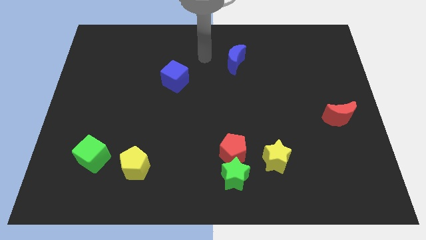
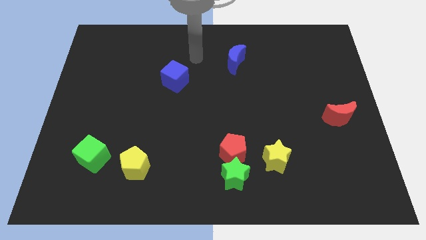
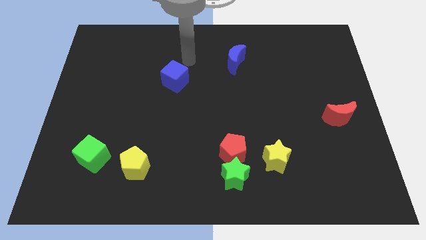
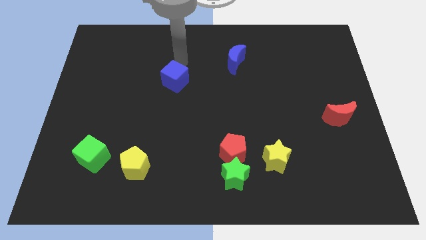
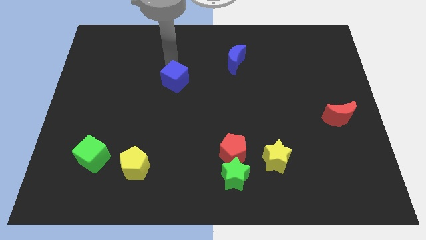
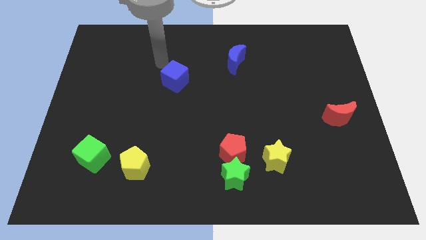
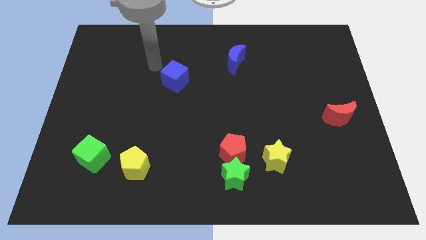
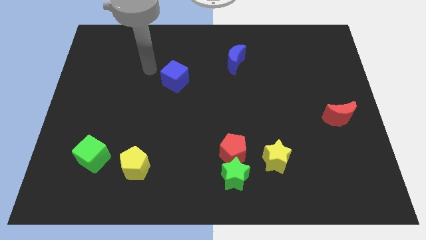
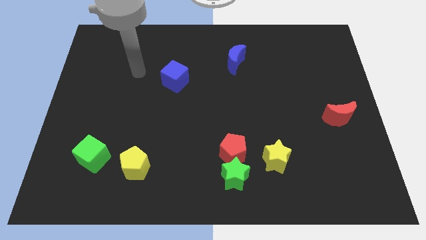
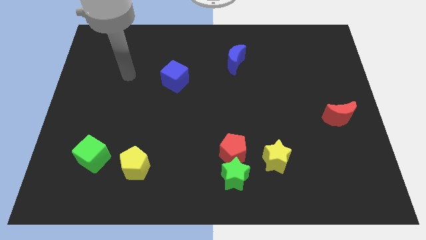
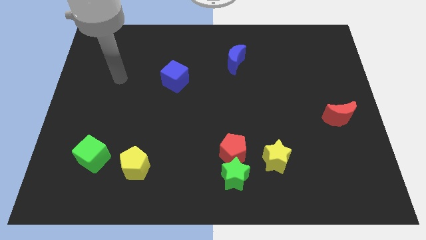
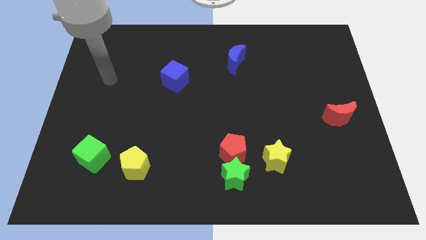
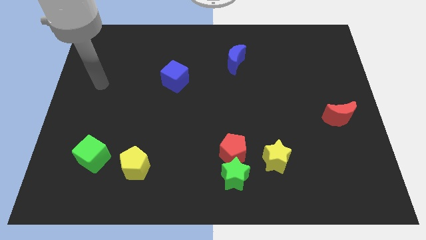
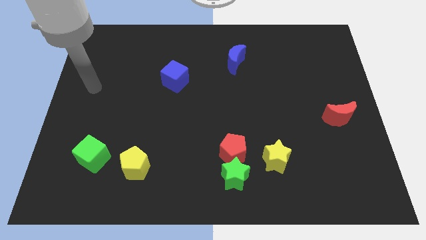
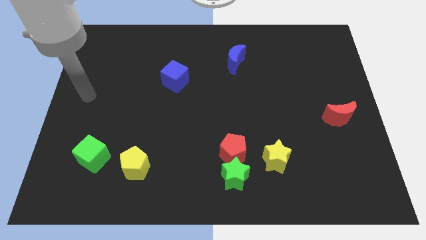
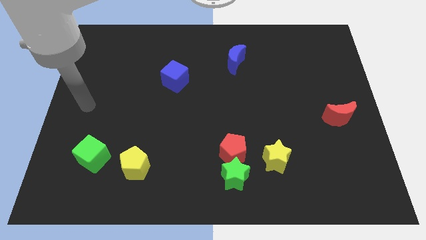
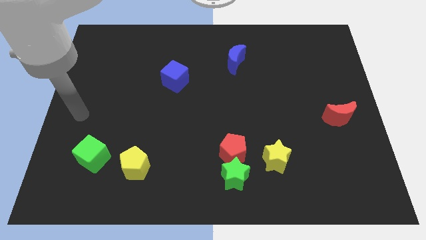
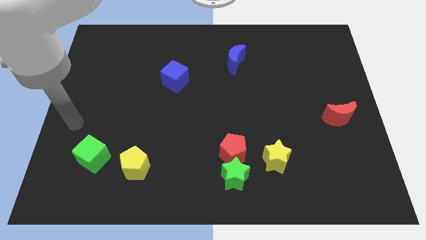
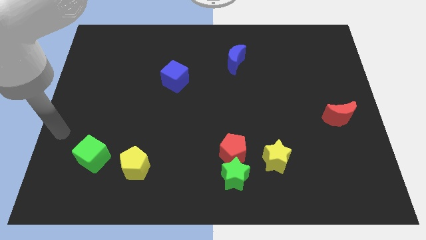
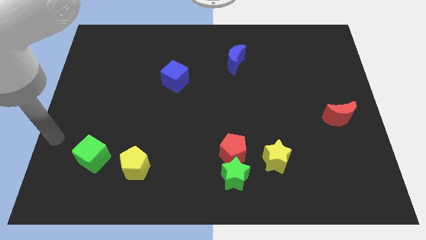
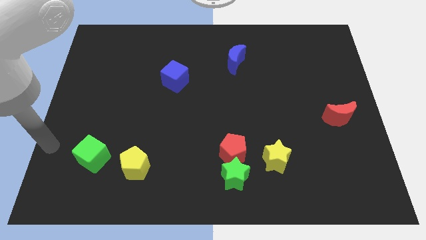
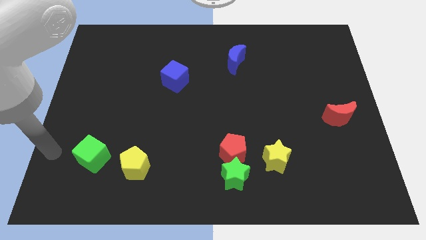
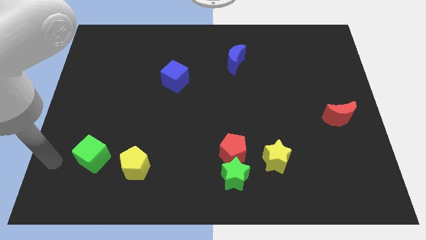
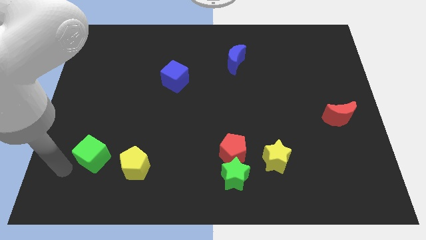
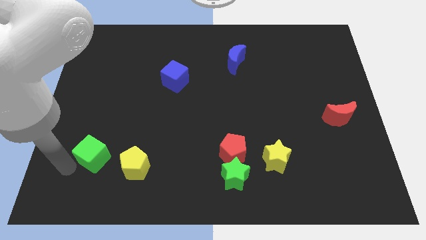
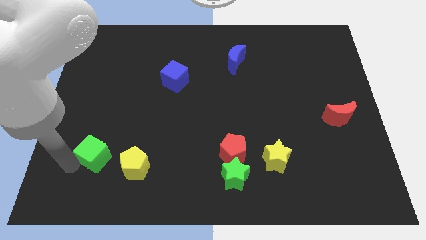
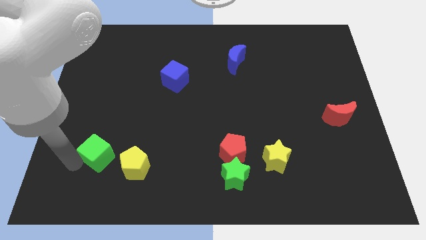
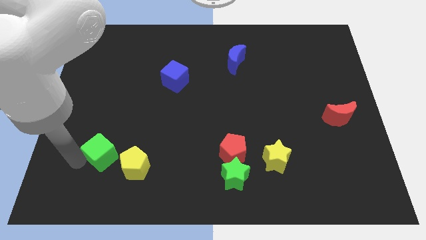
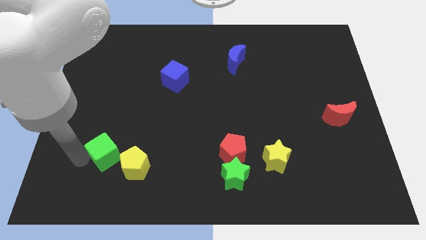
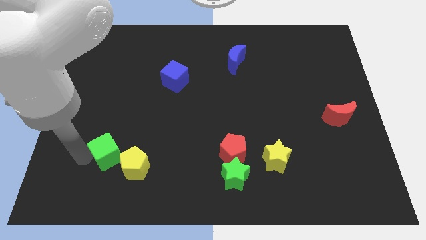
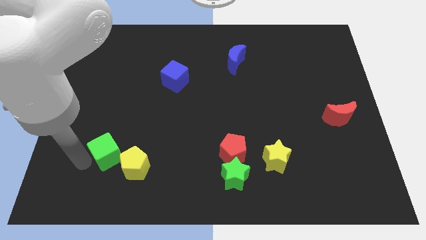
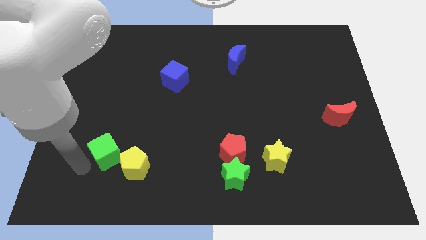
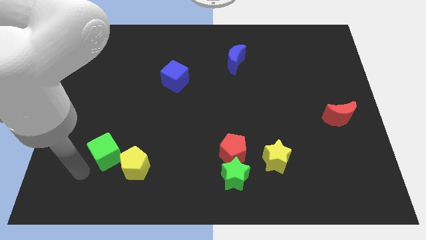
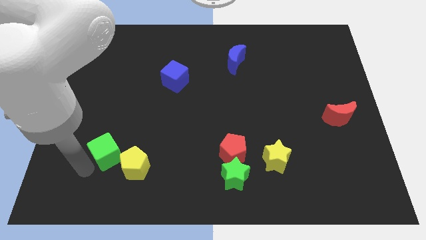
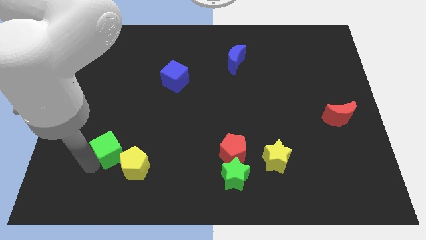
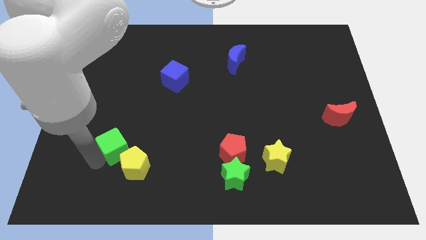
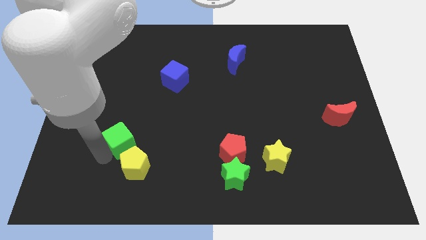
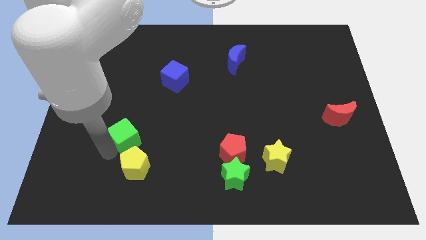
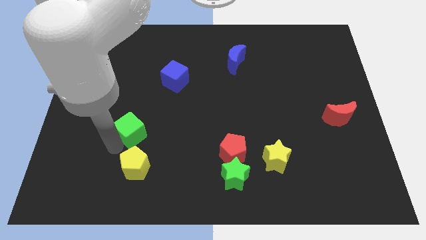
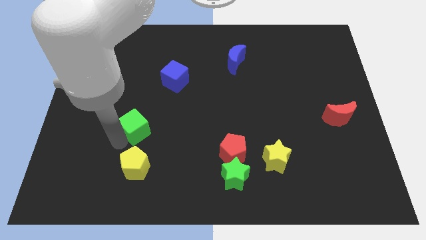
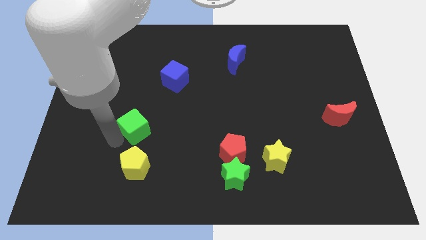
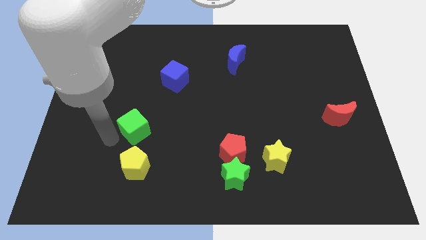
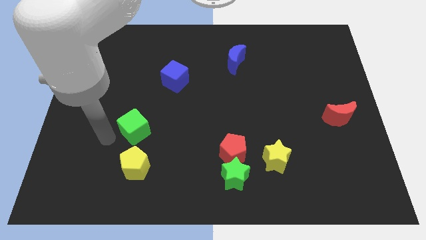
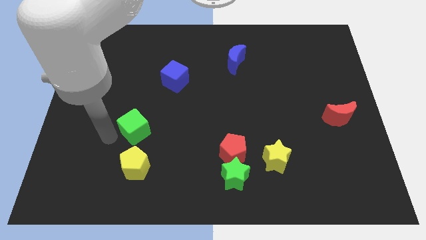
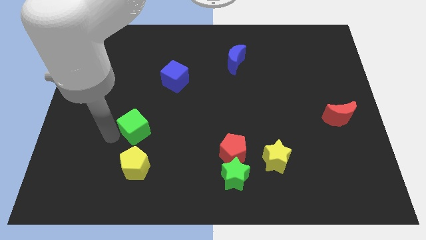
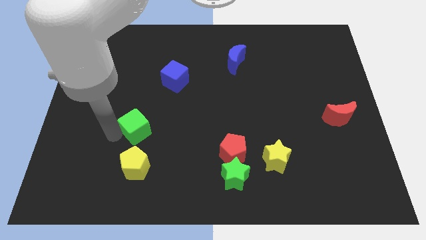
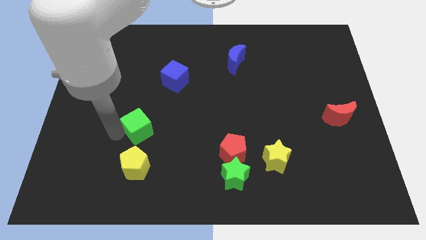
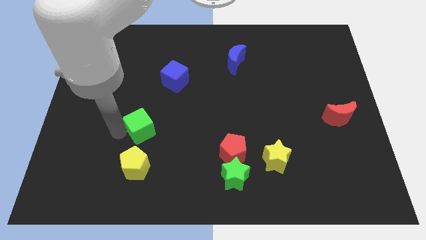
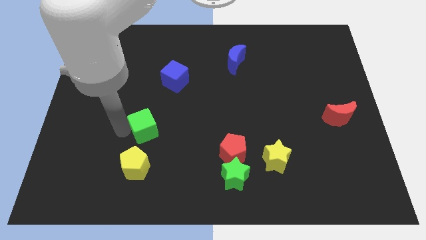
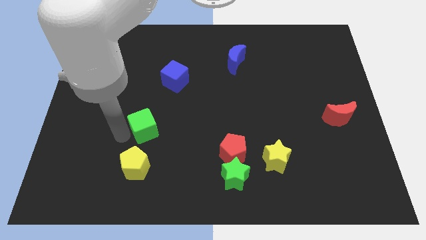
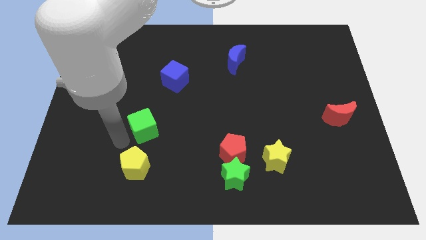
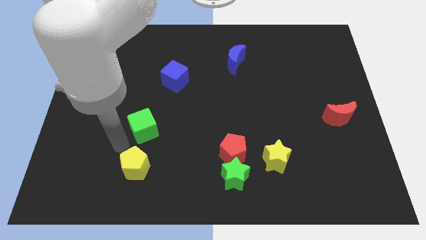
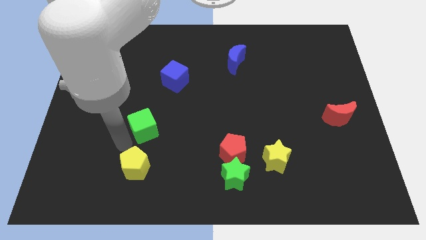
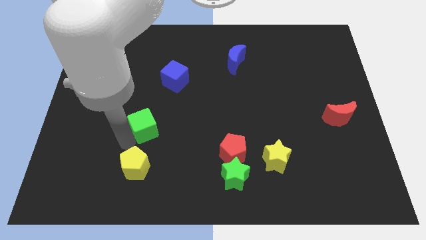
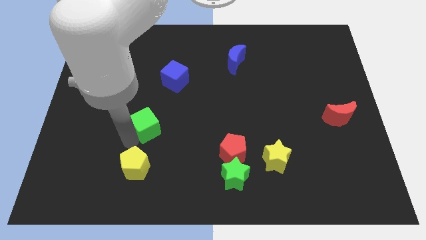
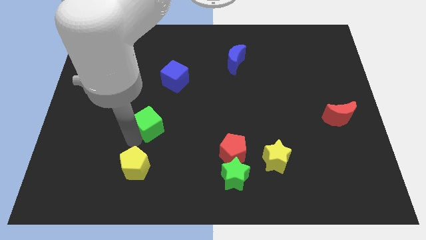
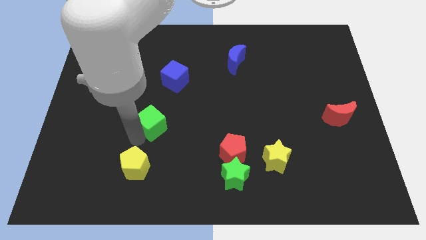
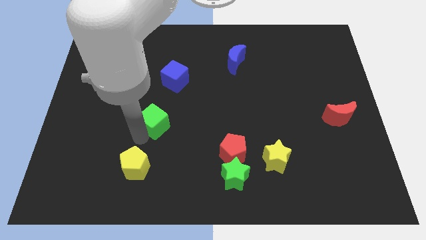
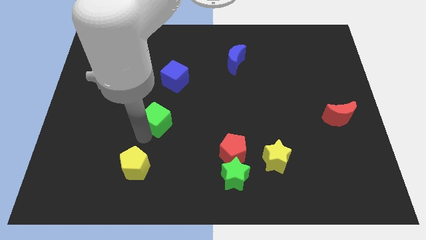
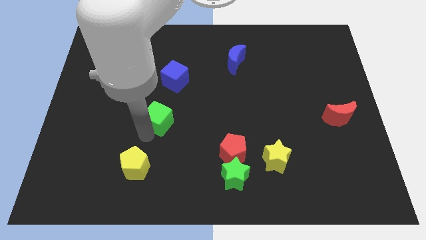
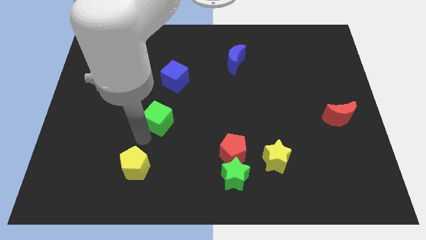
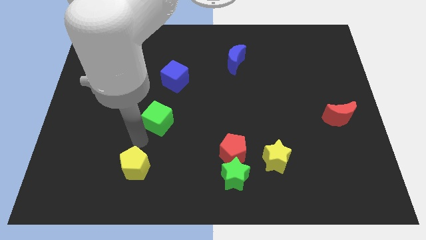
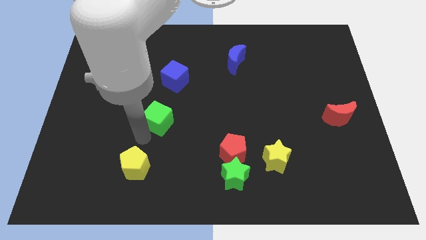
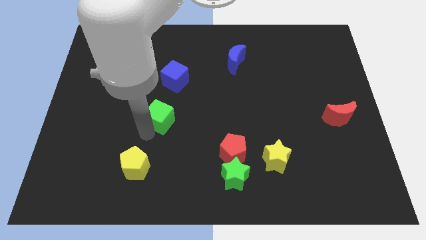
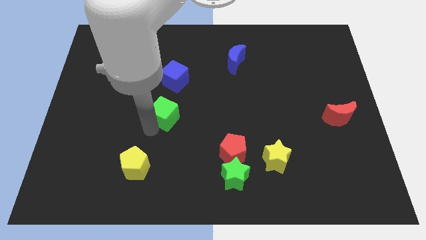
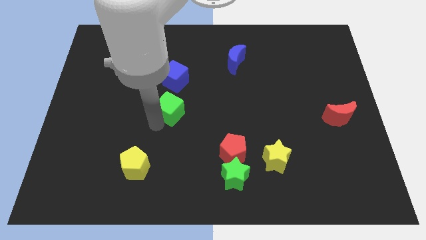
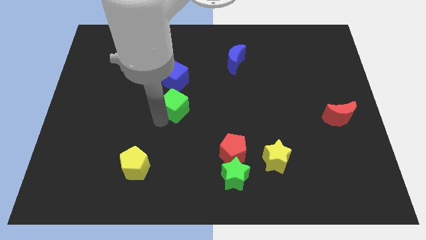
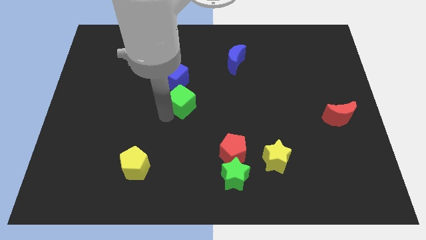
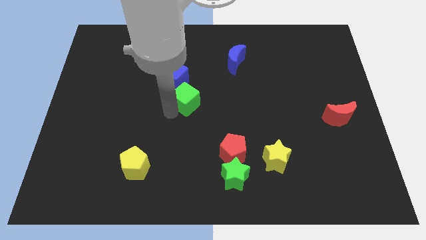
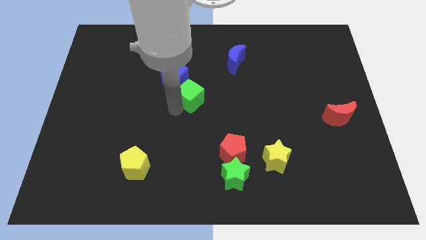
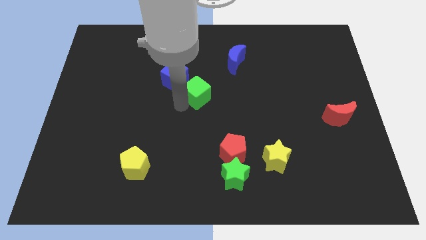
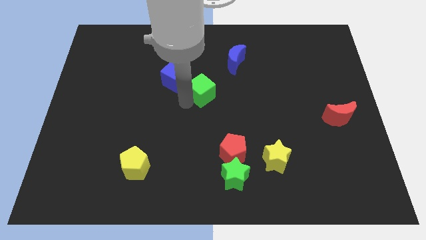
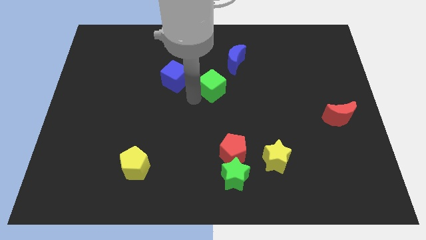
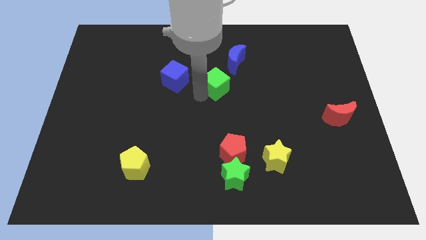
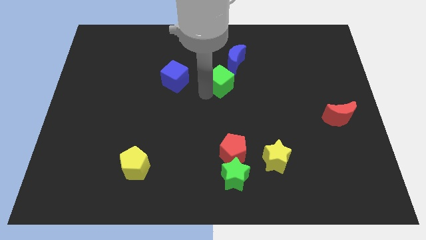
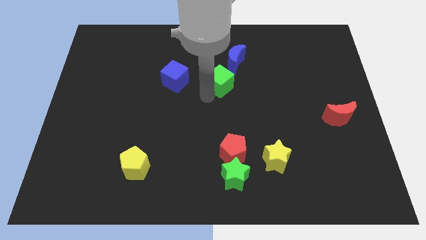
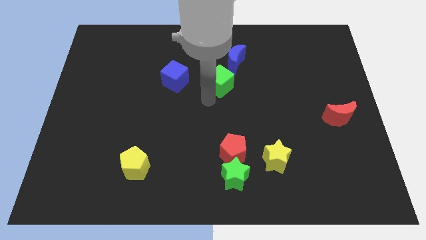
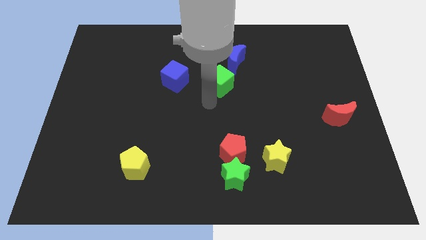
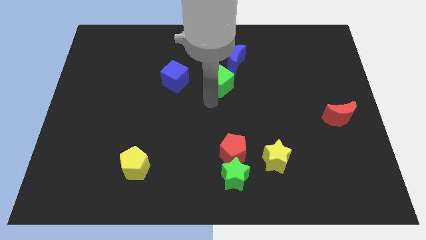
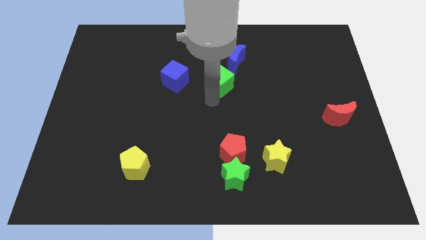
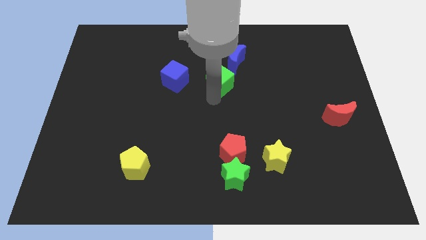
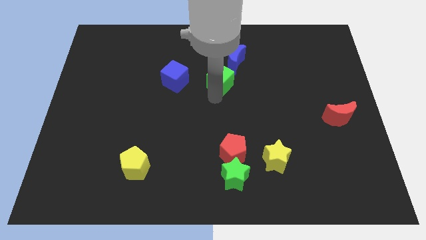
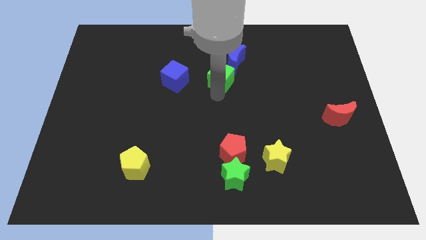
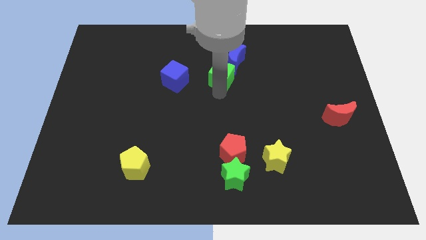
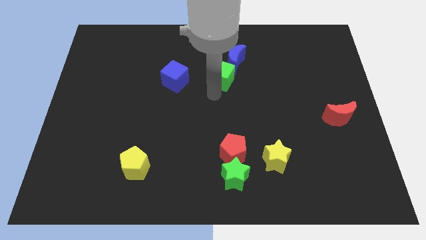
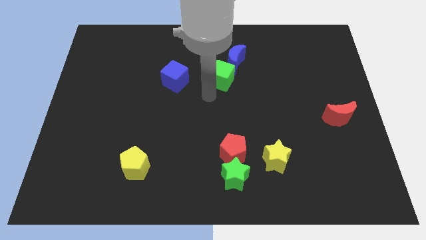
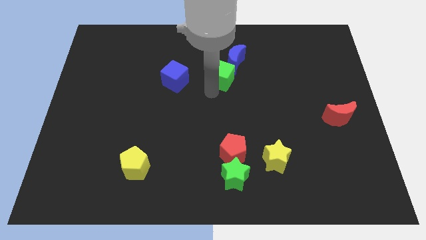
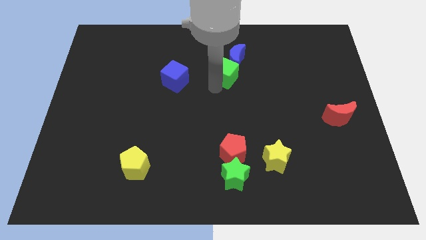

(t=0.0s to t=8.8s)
put the green cube to the blue moon
